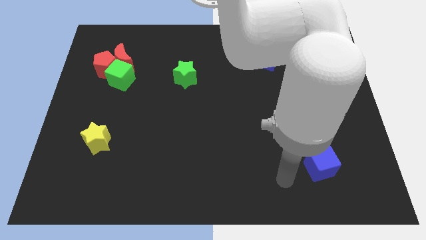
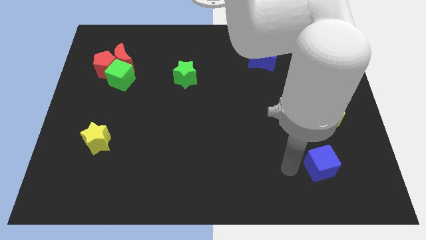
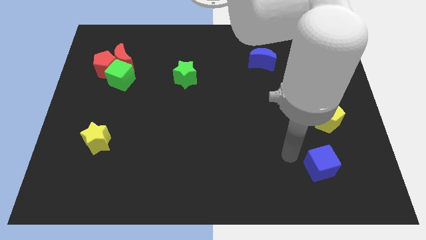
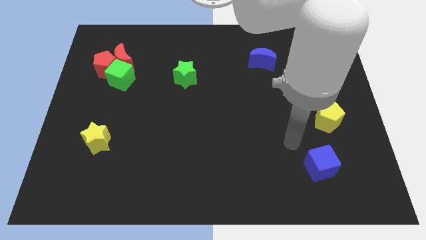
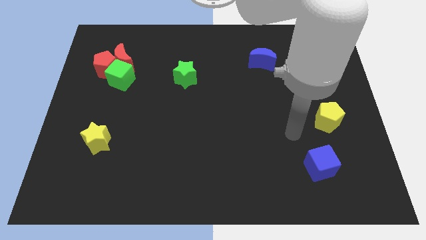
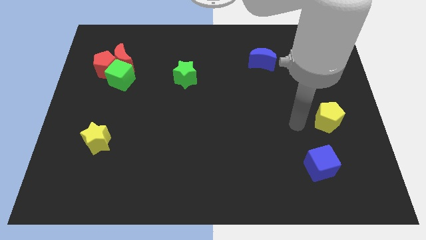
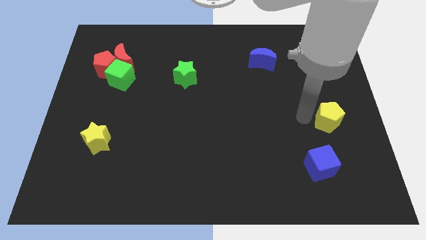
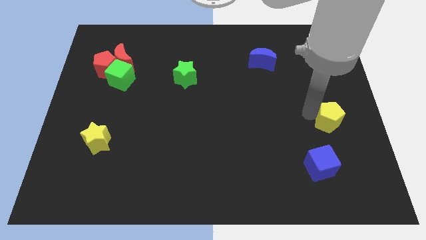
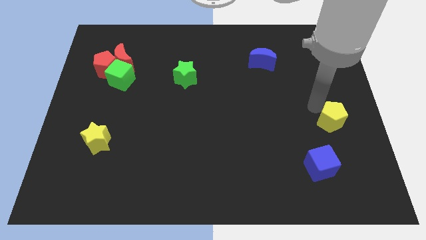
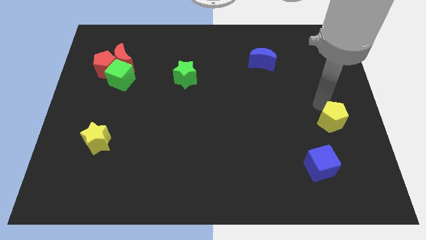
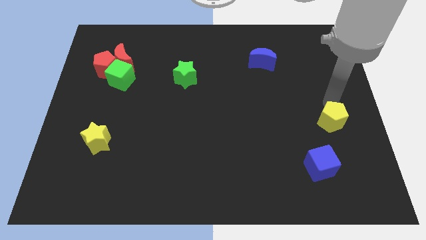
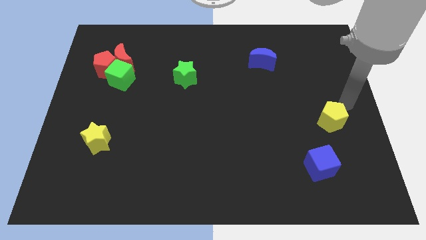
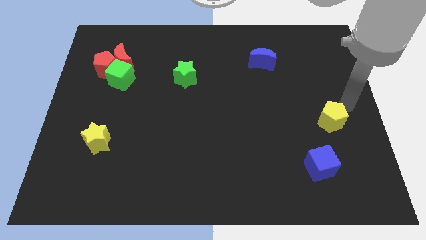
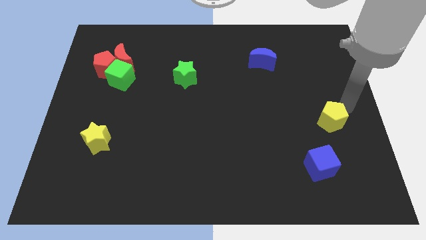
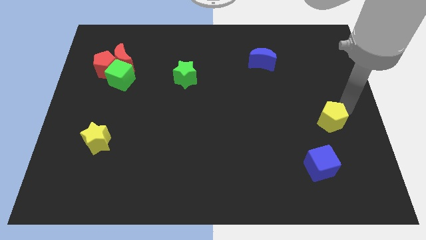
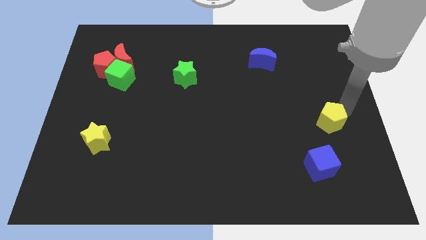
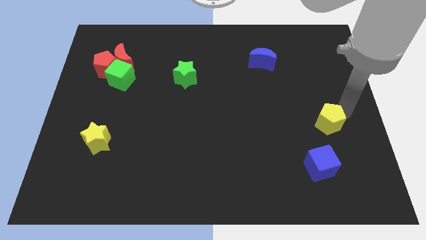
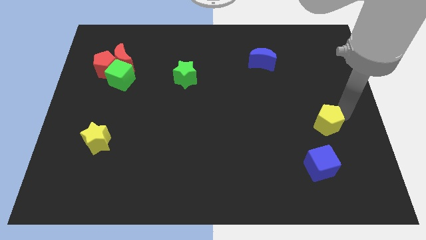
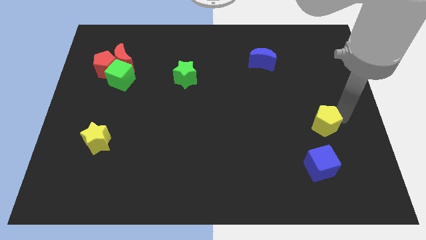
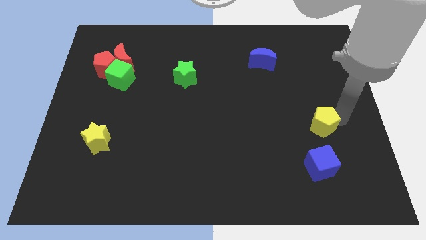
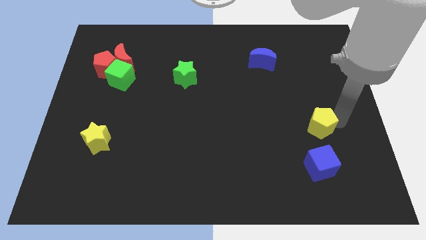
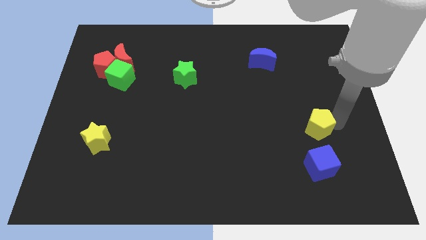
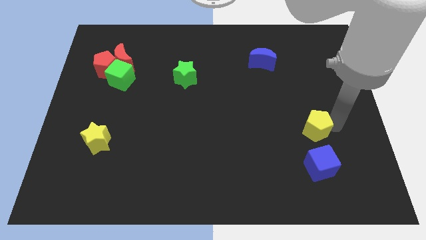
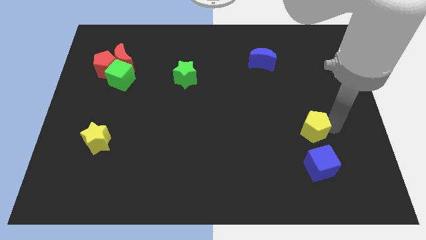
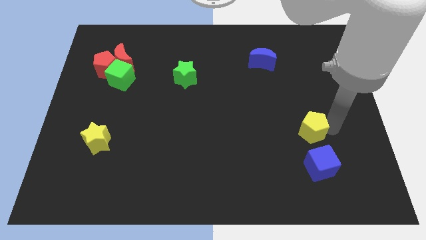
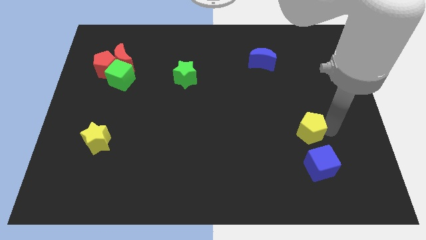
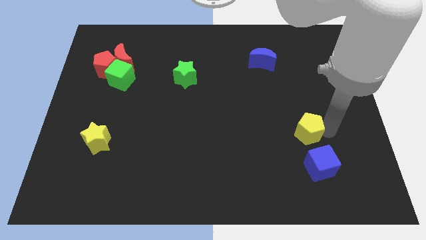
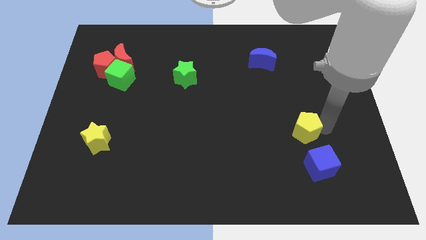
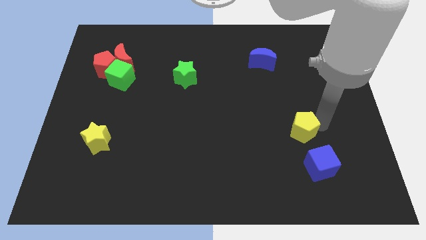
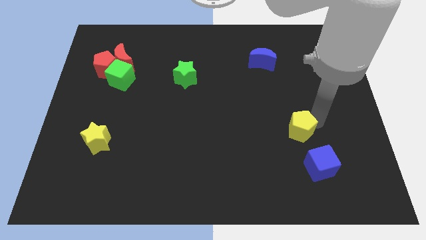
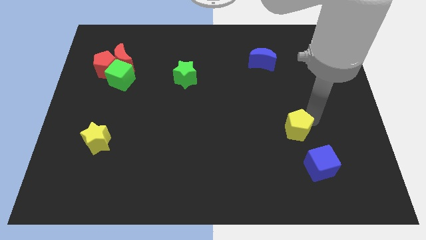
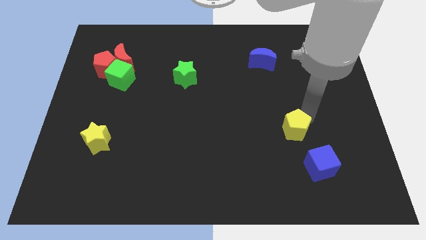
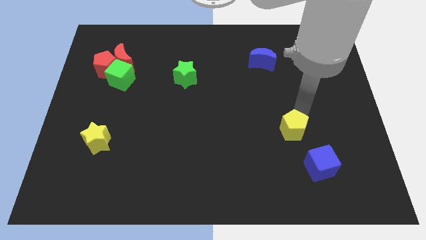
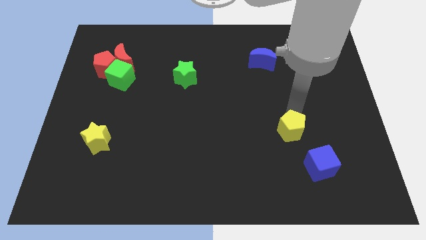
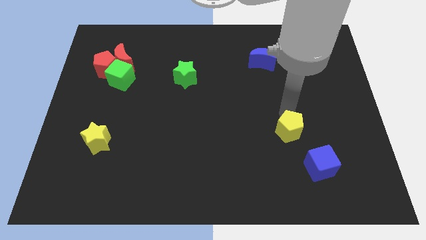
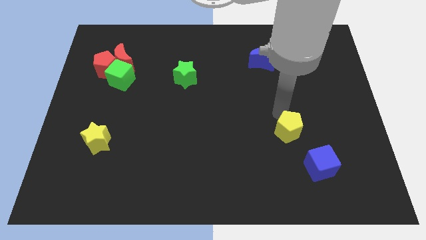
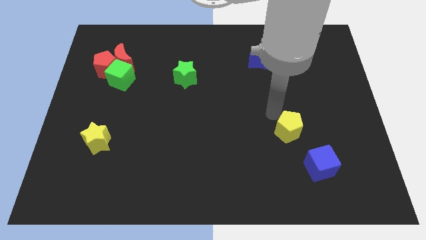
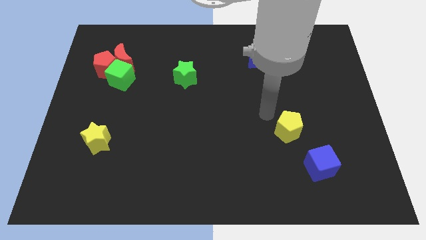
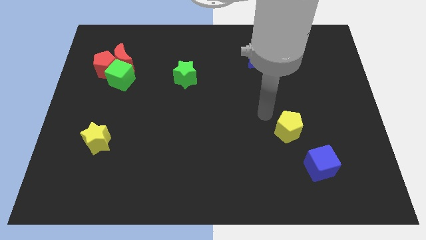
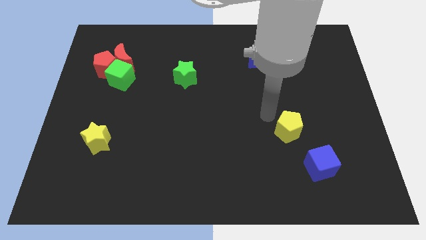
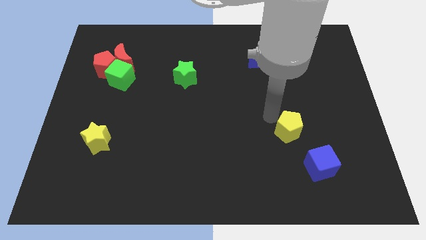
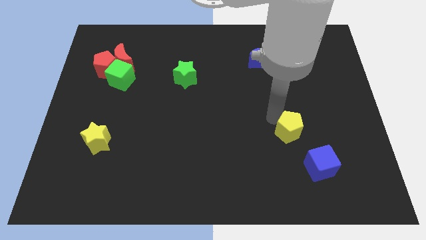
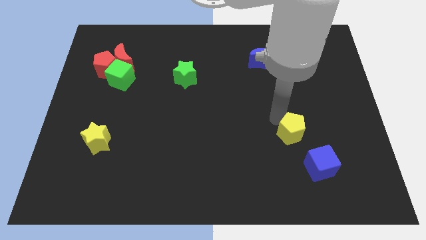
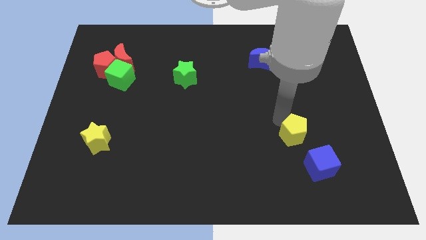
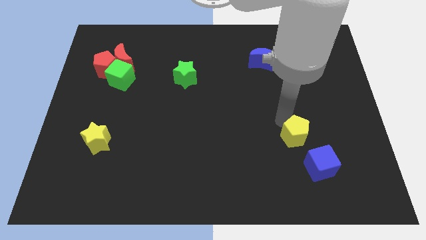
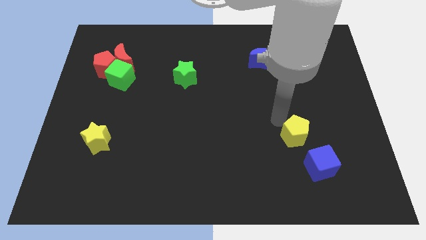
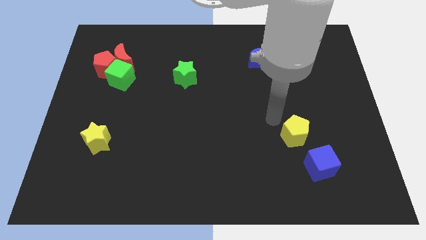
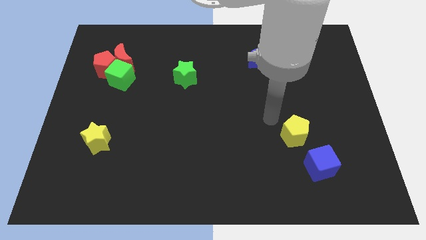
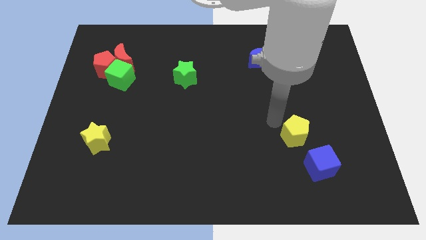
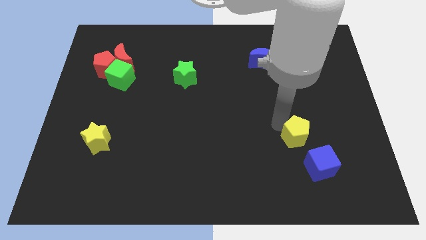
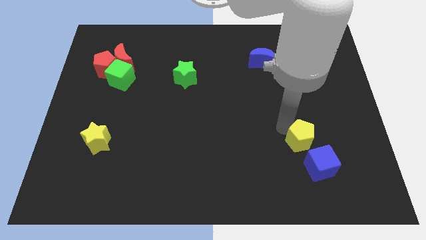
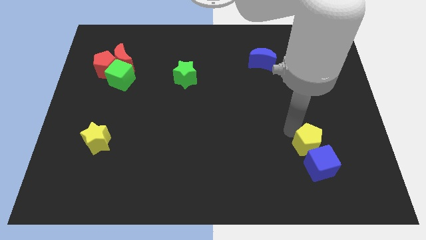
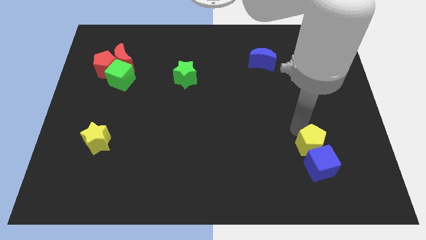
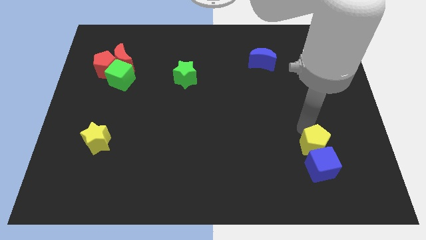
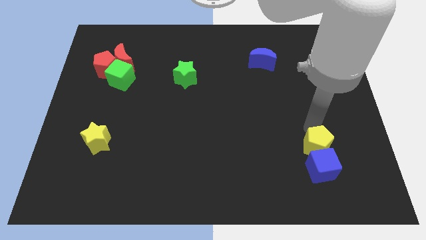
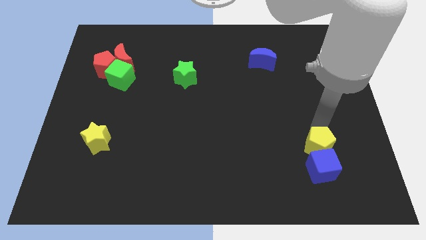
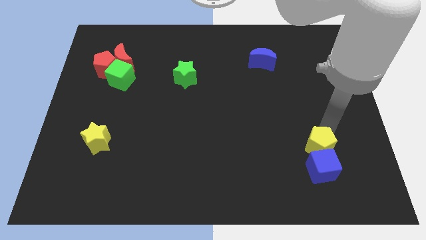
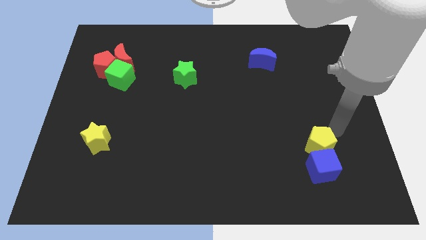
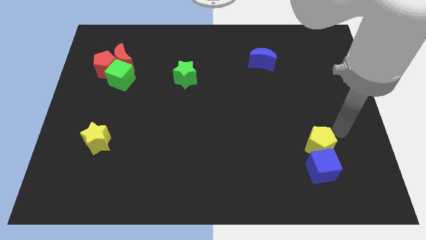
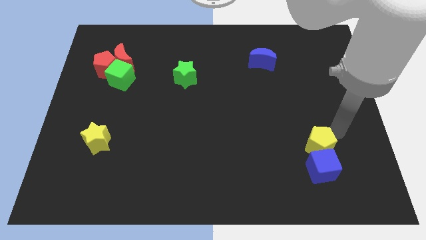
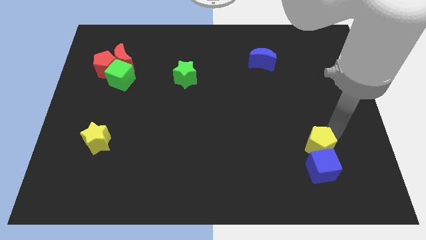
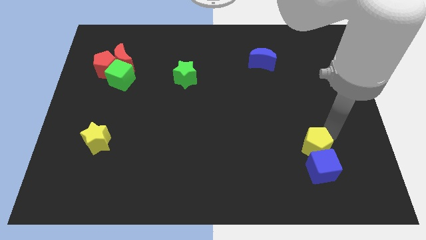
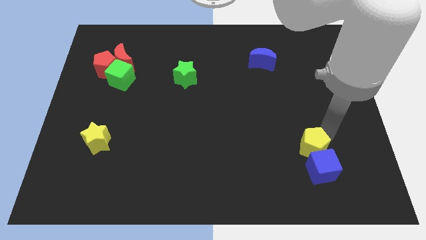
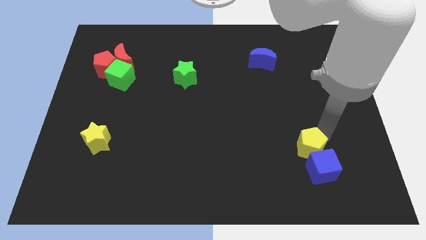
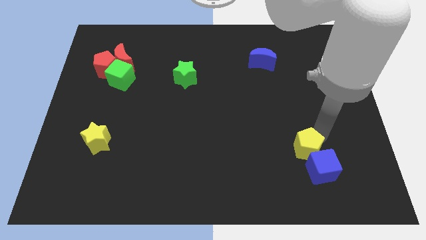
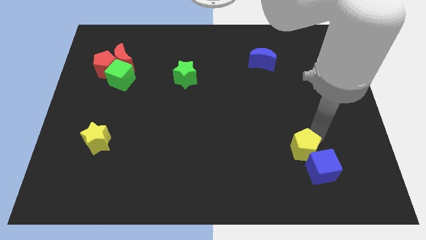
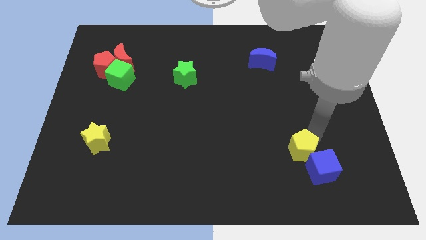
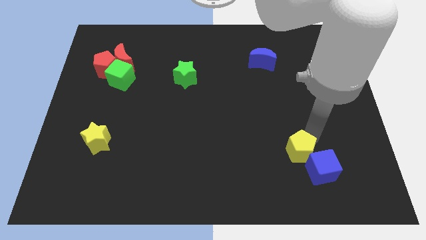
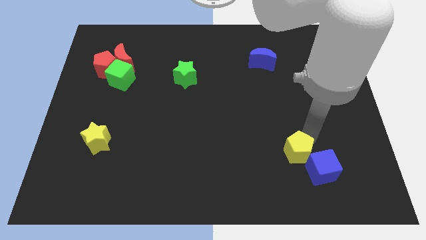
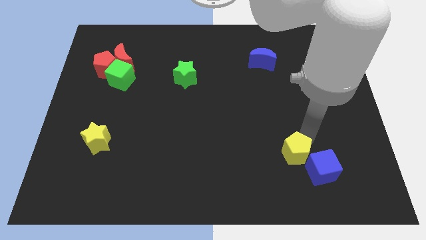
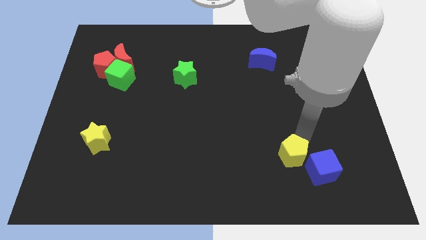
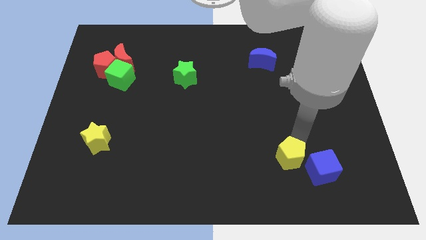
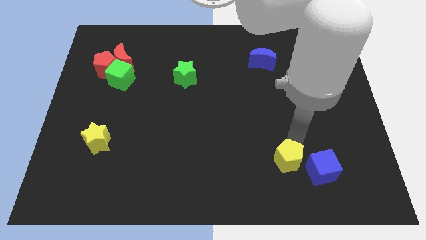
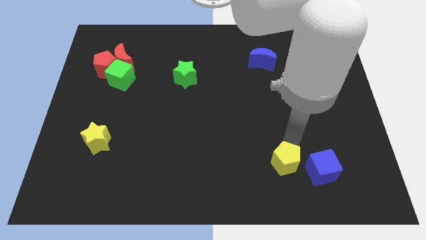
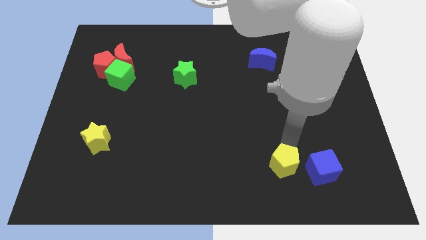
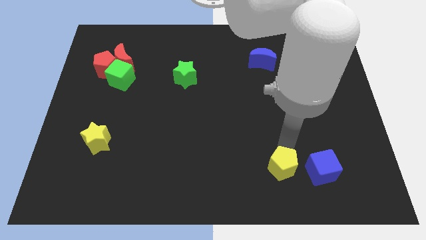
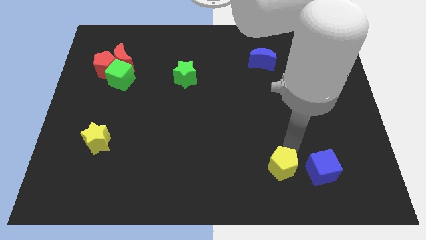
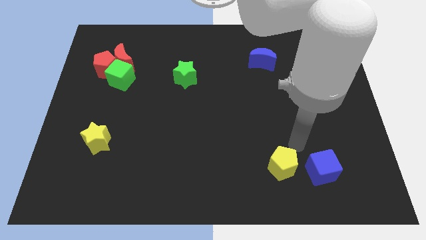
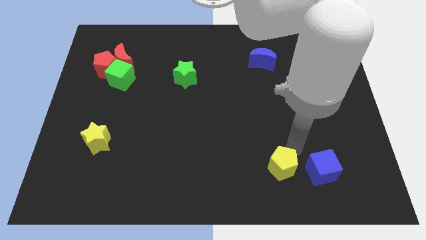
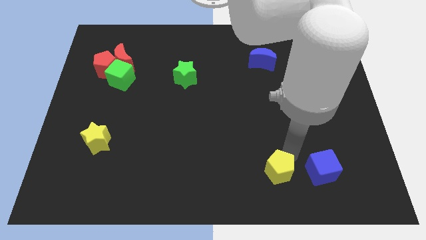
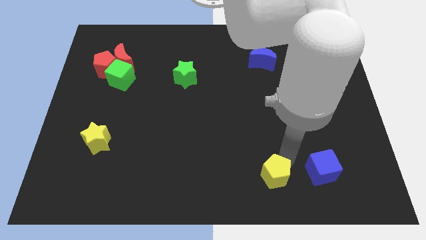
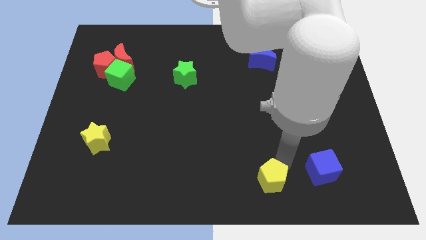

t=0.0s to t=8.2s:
push the yellow pentagon to the bottom
